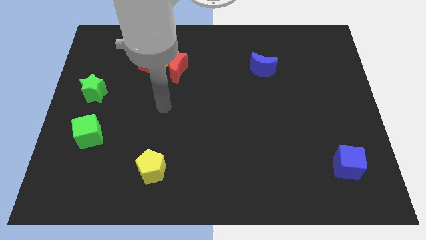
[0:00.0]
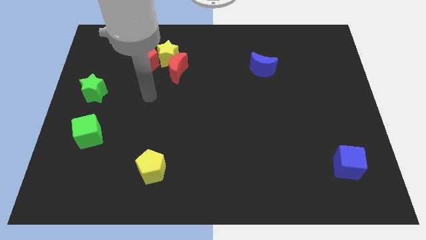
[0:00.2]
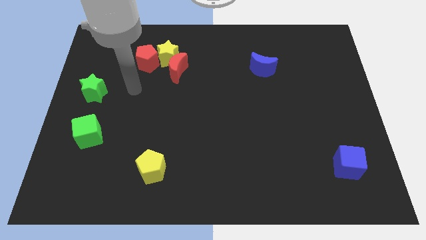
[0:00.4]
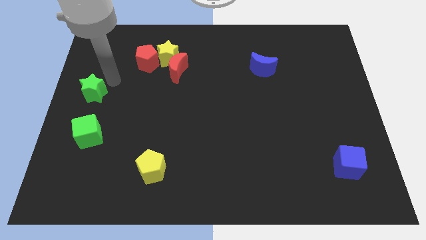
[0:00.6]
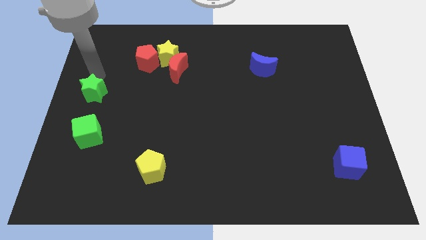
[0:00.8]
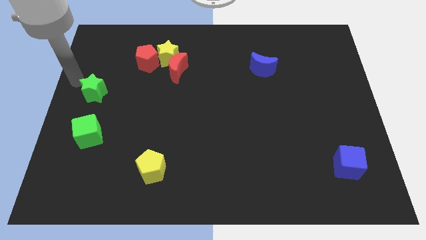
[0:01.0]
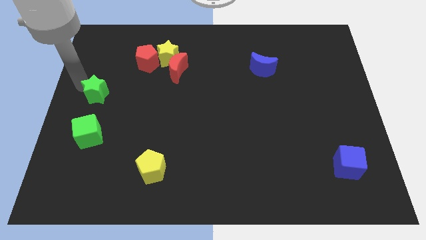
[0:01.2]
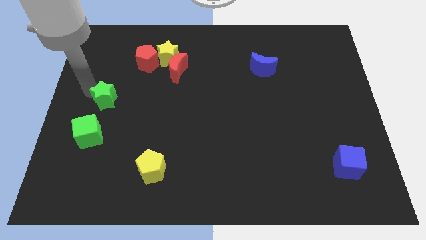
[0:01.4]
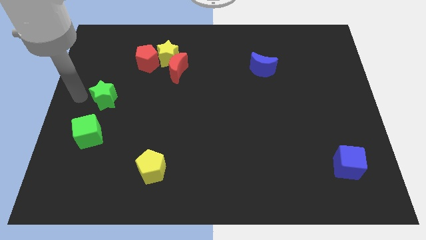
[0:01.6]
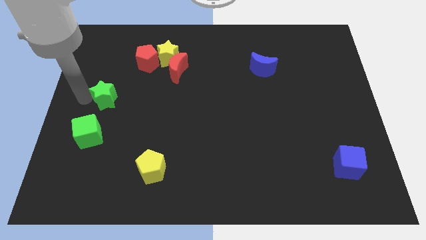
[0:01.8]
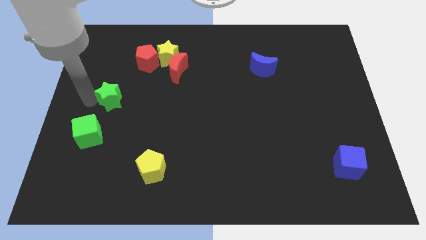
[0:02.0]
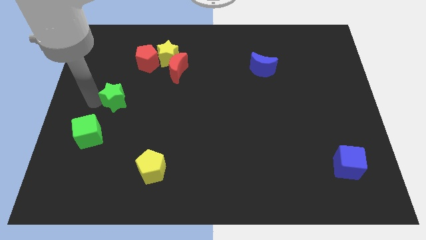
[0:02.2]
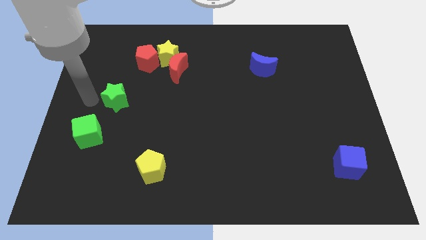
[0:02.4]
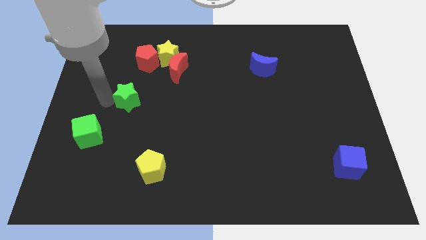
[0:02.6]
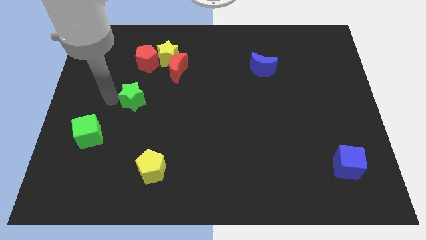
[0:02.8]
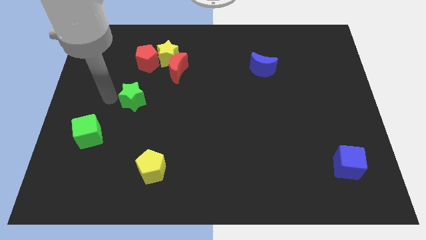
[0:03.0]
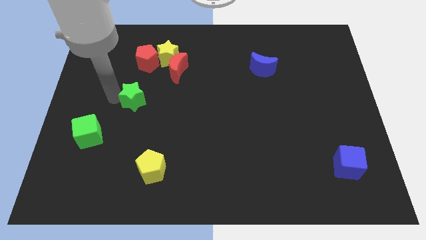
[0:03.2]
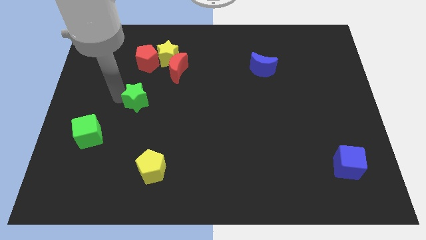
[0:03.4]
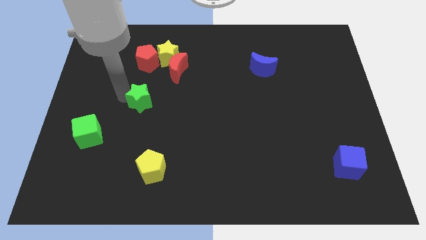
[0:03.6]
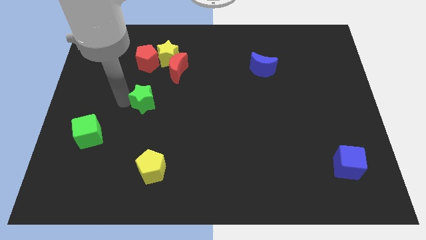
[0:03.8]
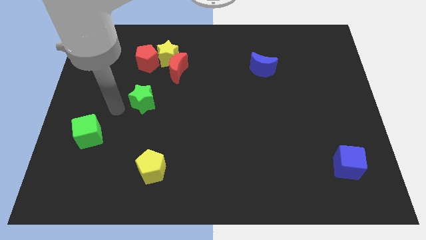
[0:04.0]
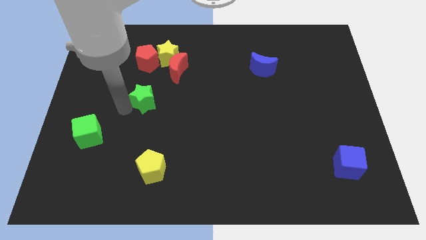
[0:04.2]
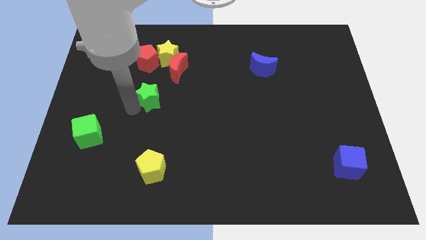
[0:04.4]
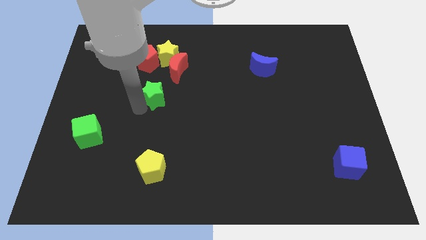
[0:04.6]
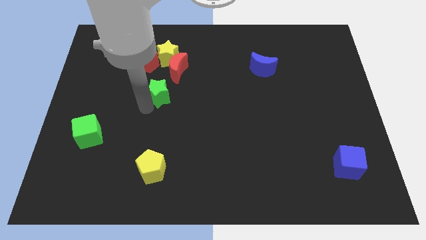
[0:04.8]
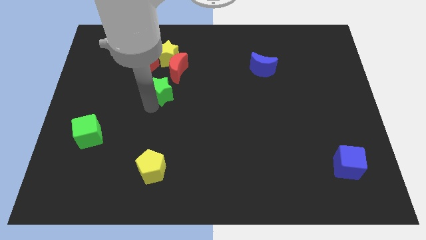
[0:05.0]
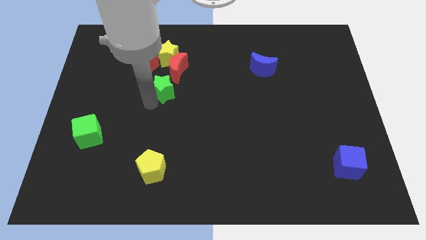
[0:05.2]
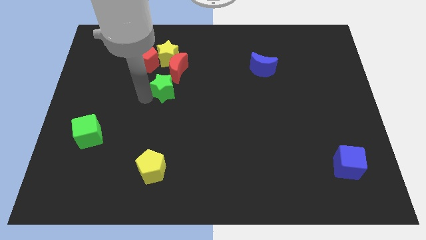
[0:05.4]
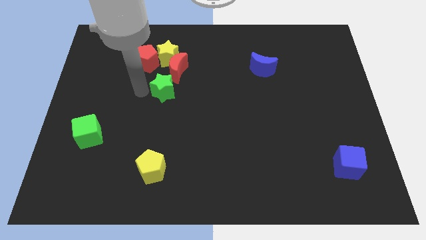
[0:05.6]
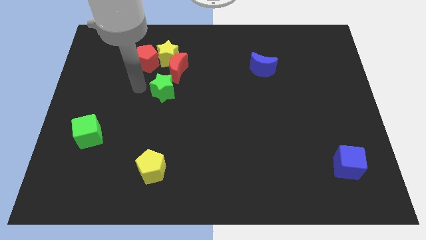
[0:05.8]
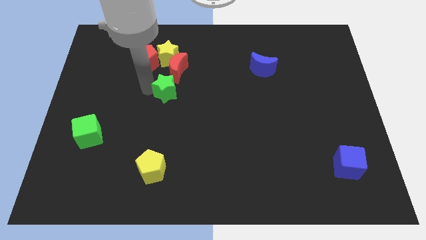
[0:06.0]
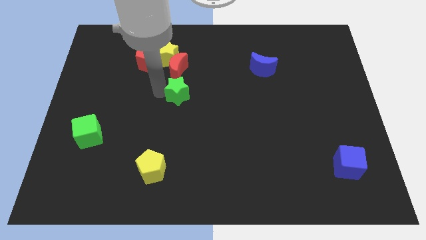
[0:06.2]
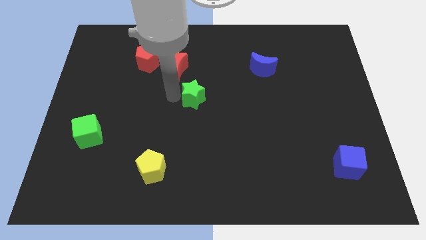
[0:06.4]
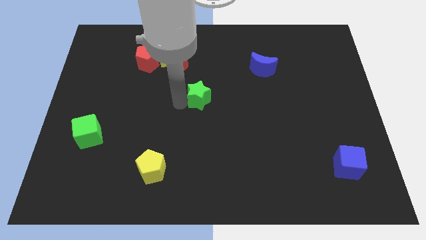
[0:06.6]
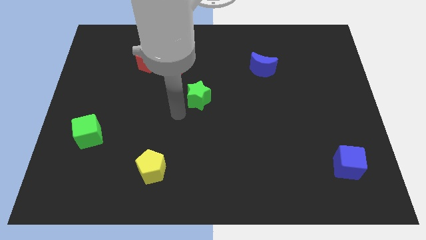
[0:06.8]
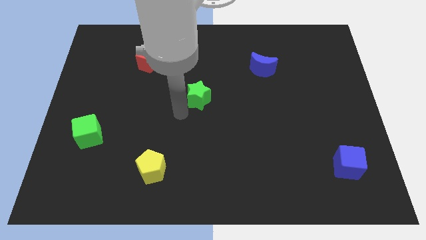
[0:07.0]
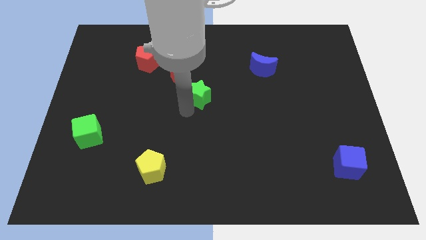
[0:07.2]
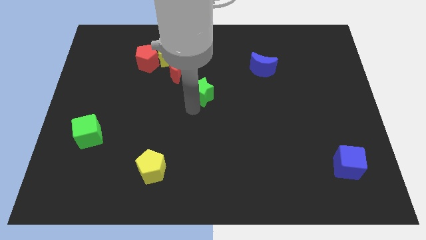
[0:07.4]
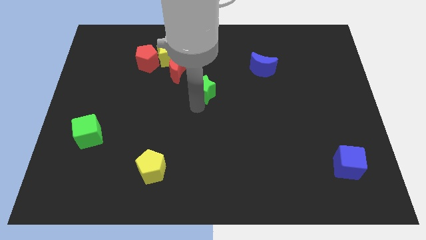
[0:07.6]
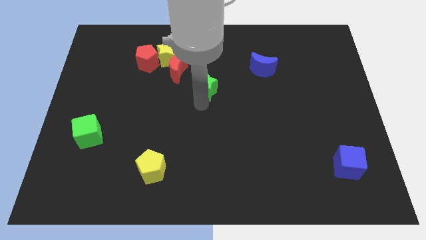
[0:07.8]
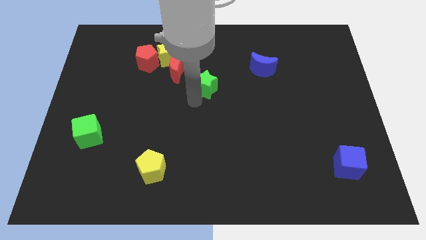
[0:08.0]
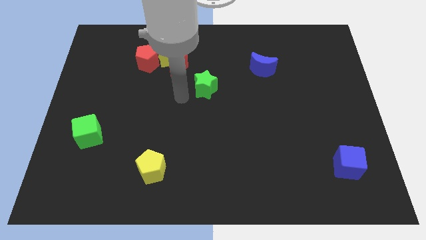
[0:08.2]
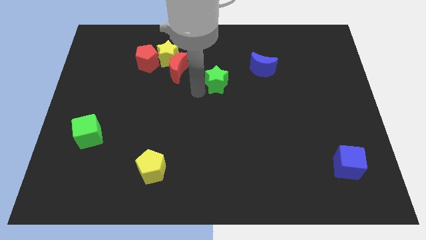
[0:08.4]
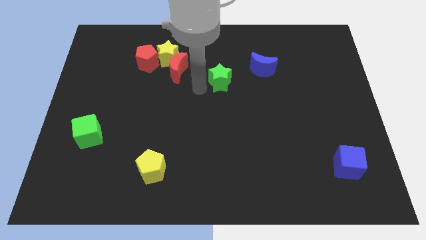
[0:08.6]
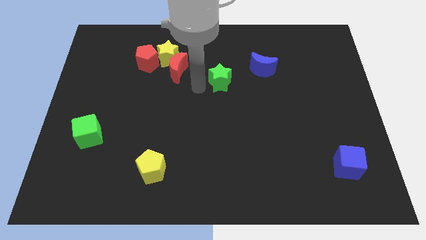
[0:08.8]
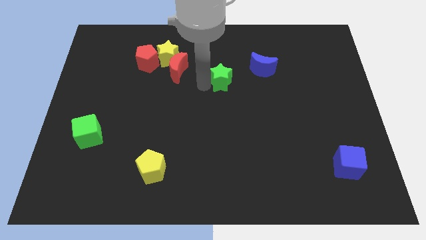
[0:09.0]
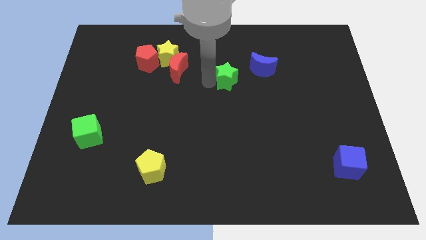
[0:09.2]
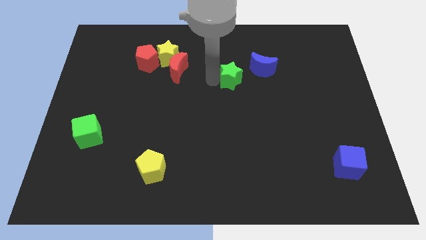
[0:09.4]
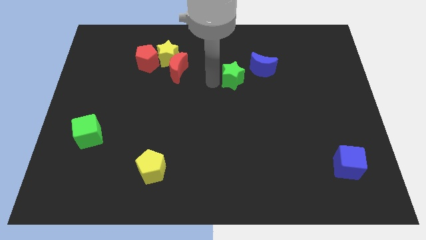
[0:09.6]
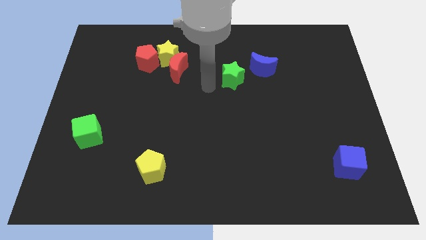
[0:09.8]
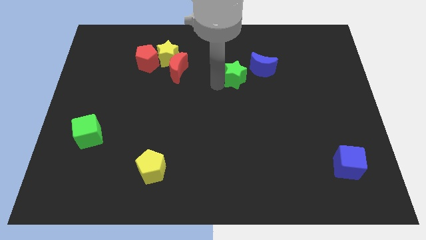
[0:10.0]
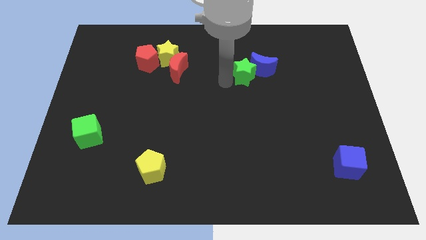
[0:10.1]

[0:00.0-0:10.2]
put the green star towards the blue moon

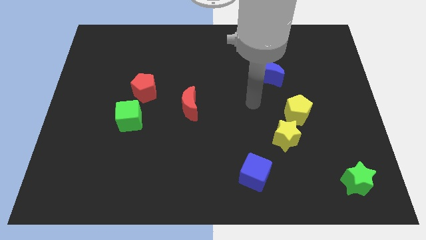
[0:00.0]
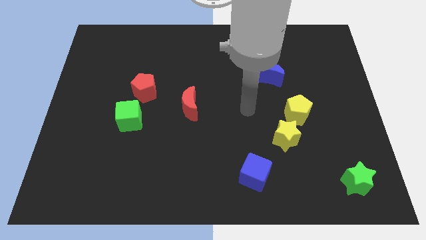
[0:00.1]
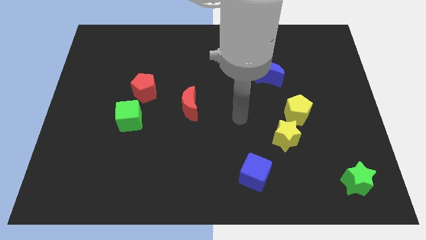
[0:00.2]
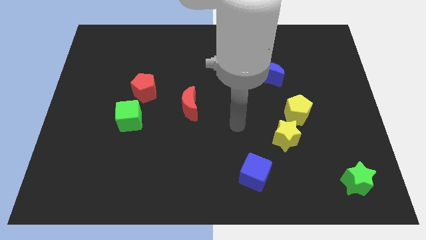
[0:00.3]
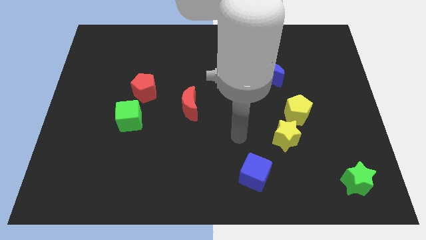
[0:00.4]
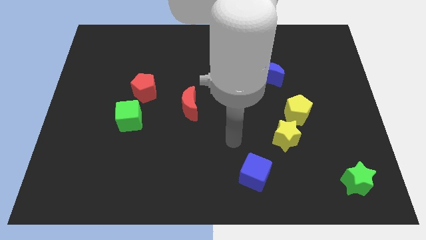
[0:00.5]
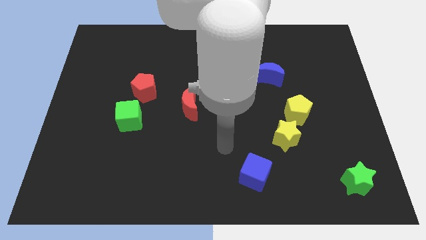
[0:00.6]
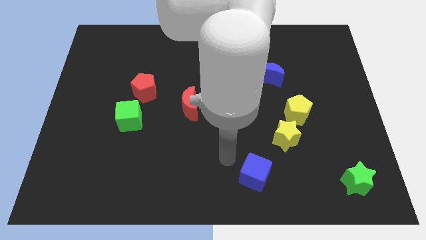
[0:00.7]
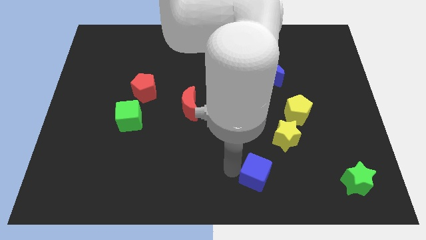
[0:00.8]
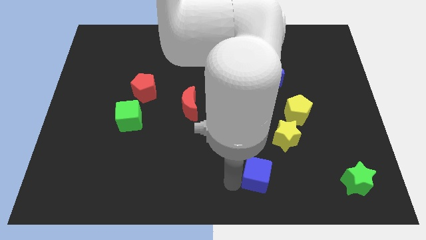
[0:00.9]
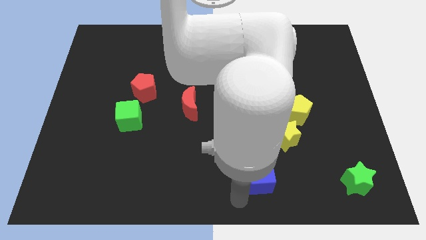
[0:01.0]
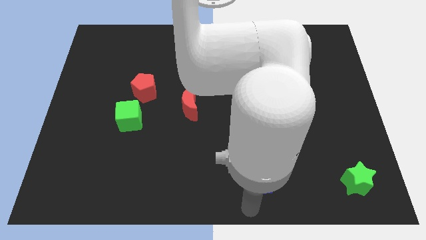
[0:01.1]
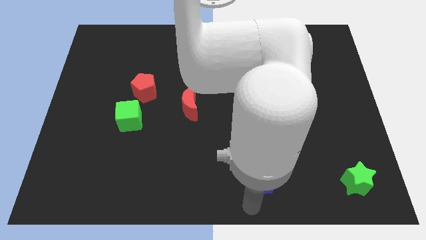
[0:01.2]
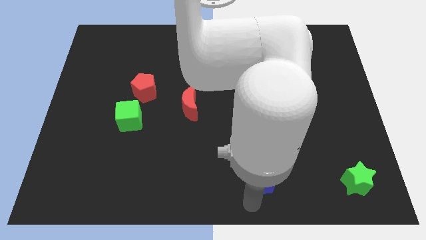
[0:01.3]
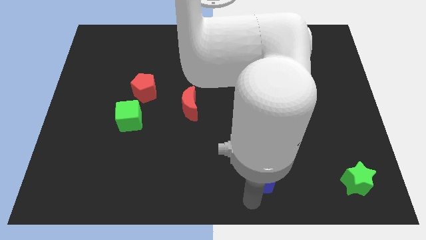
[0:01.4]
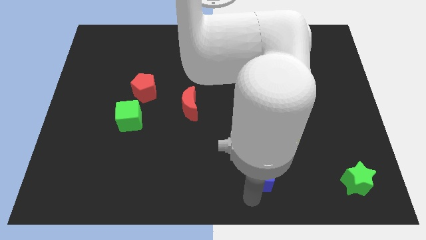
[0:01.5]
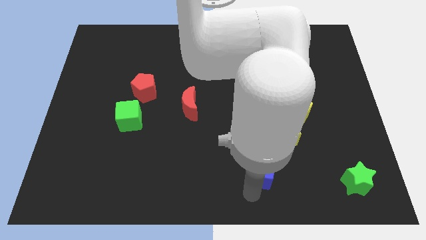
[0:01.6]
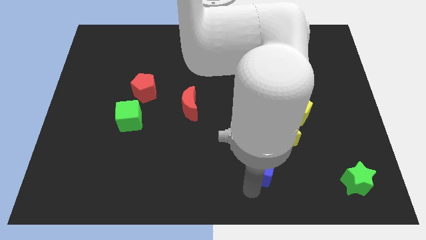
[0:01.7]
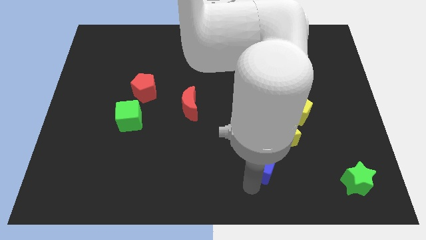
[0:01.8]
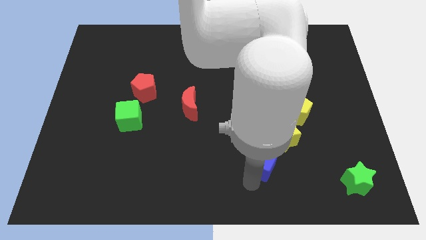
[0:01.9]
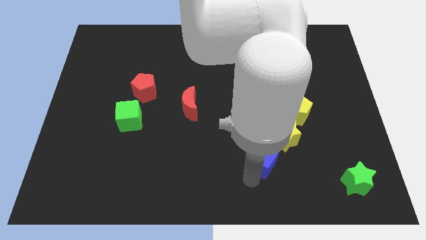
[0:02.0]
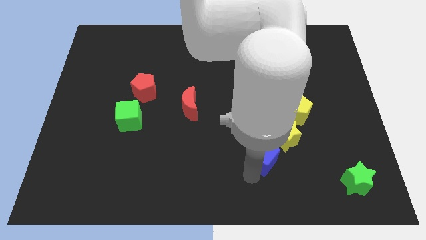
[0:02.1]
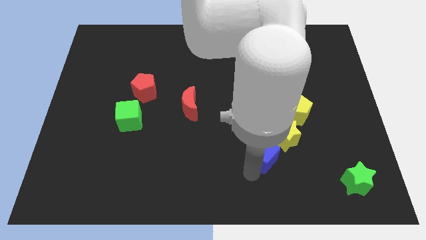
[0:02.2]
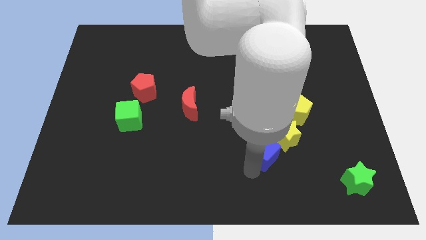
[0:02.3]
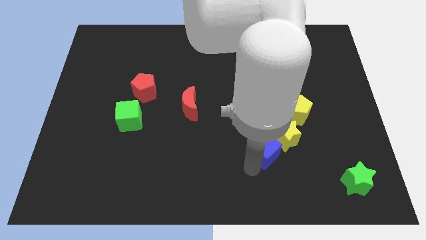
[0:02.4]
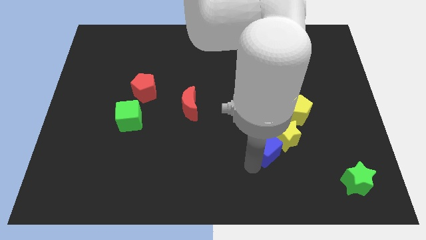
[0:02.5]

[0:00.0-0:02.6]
push the blue cube towards the yellow star
